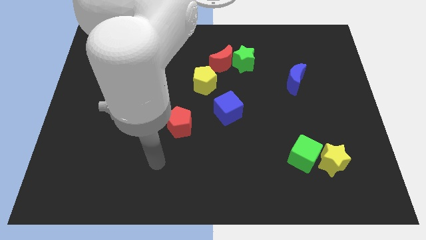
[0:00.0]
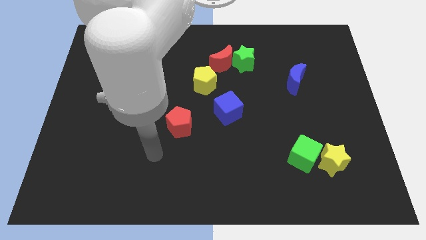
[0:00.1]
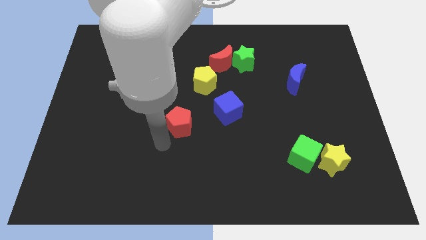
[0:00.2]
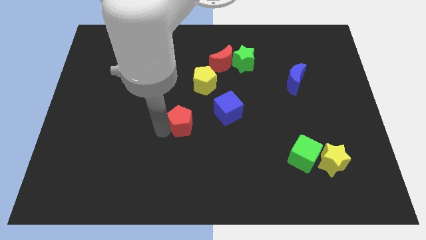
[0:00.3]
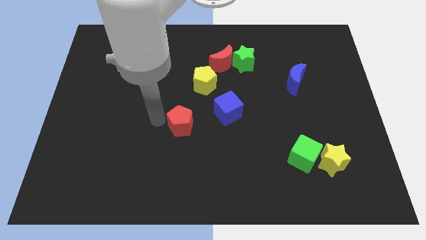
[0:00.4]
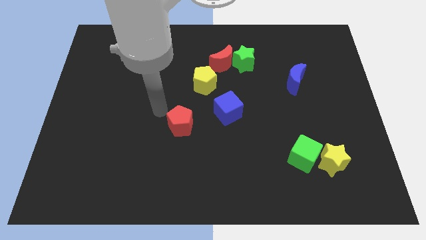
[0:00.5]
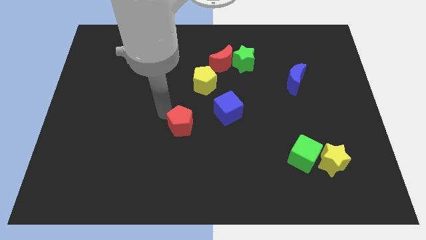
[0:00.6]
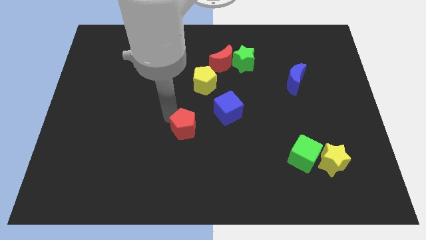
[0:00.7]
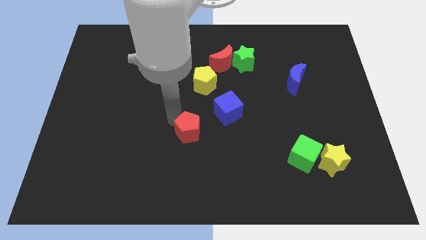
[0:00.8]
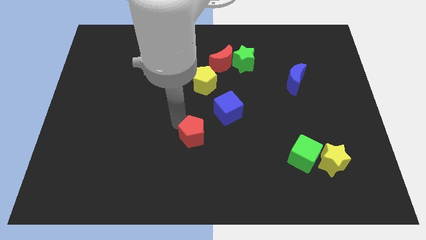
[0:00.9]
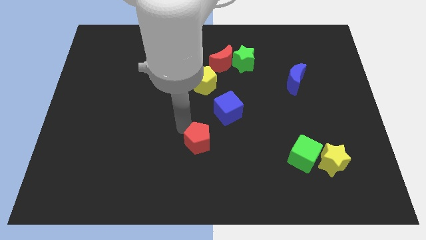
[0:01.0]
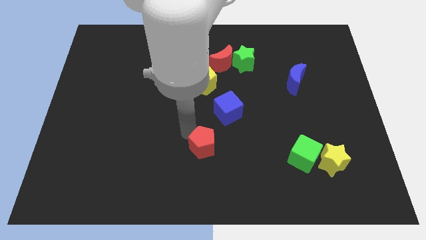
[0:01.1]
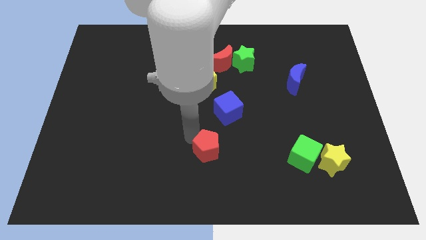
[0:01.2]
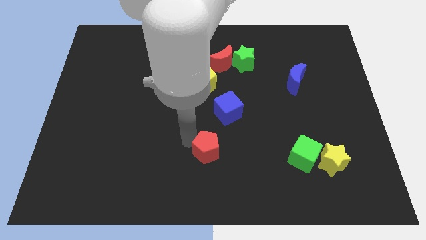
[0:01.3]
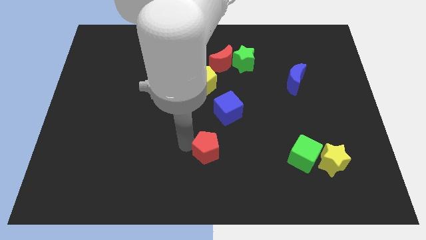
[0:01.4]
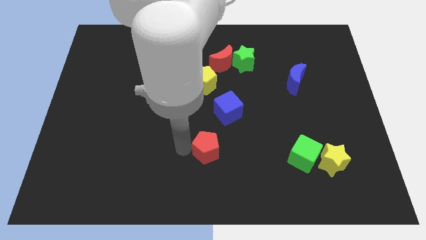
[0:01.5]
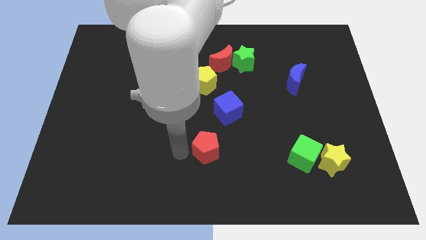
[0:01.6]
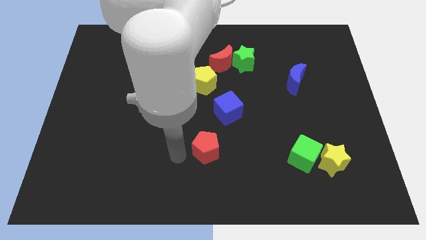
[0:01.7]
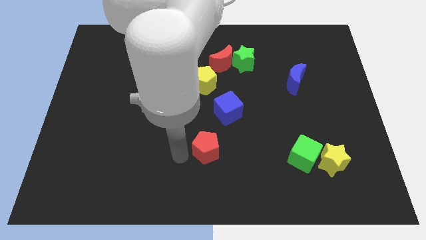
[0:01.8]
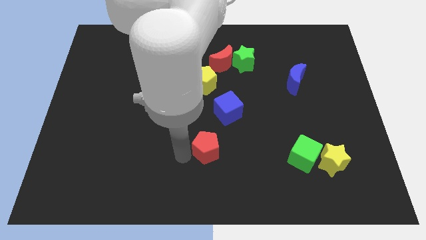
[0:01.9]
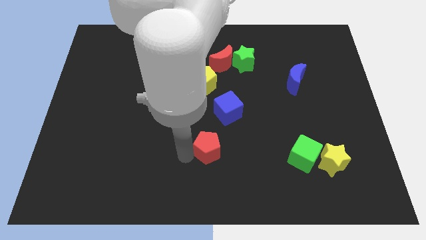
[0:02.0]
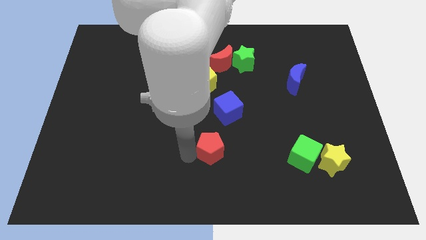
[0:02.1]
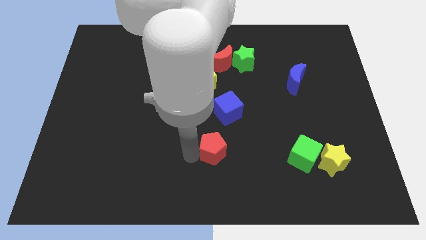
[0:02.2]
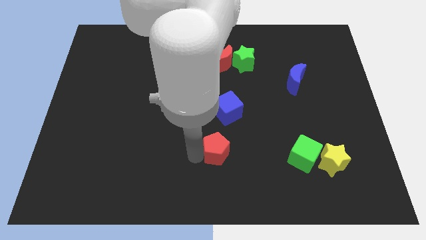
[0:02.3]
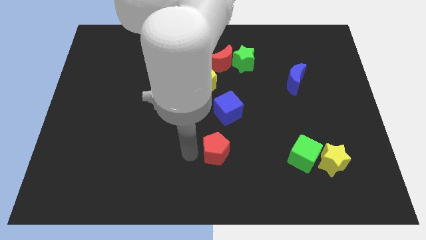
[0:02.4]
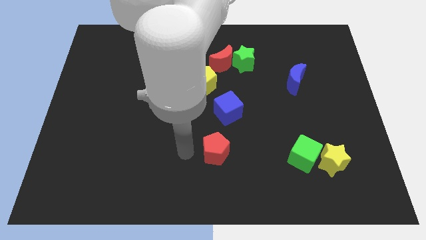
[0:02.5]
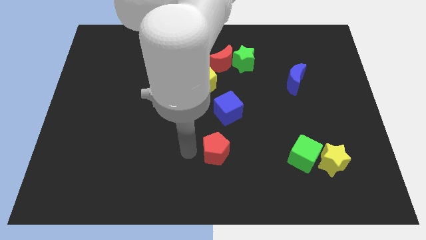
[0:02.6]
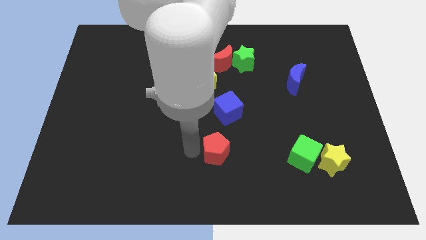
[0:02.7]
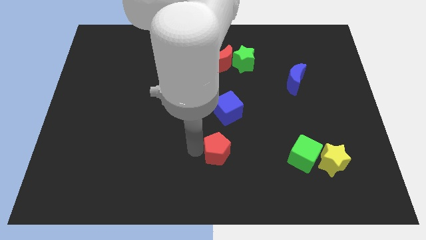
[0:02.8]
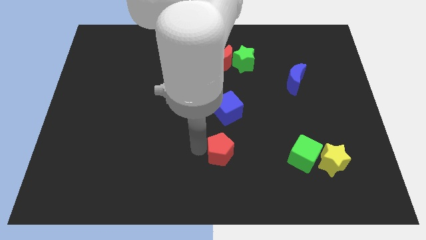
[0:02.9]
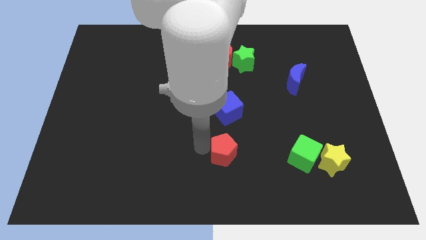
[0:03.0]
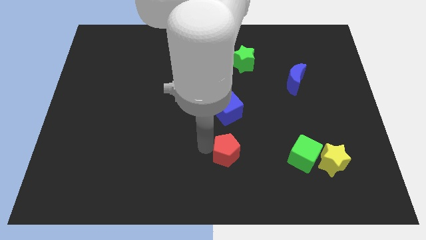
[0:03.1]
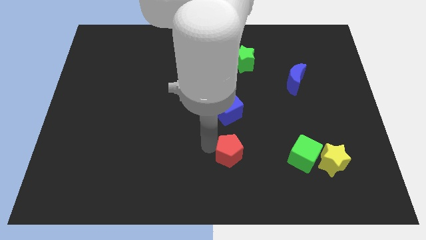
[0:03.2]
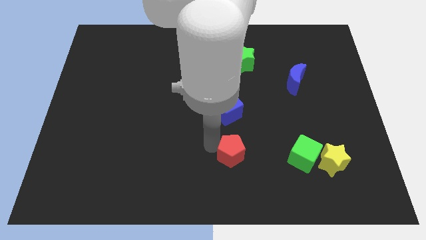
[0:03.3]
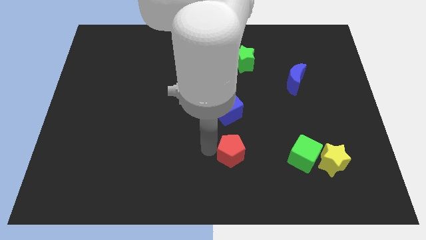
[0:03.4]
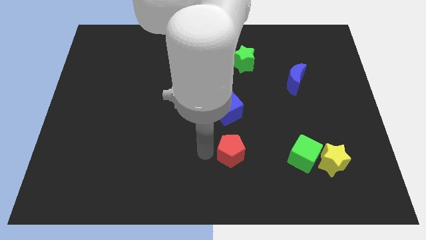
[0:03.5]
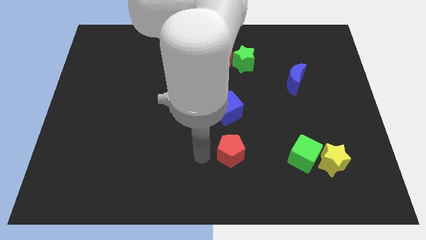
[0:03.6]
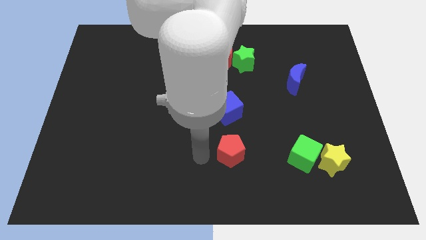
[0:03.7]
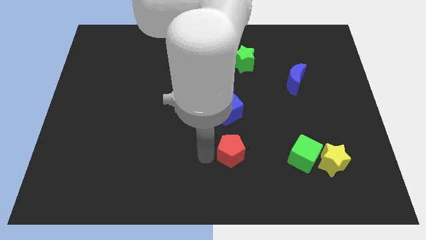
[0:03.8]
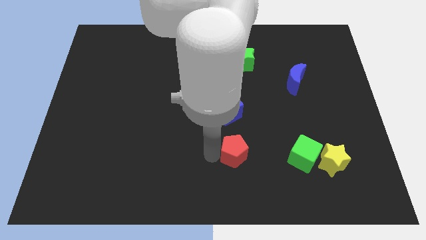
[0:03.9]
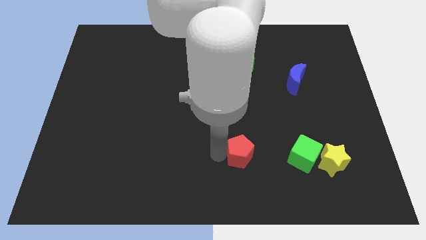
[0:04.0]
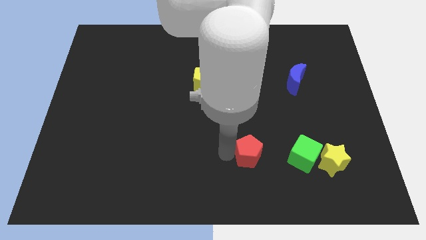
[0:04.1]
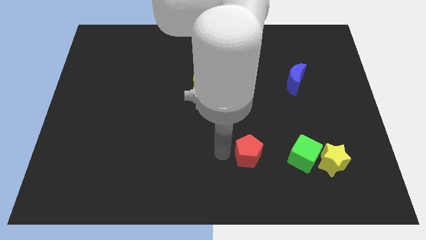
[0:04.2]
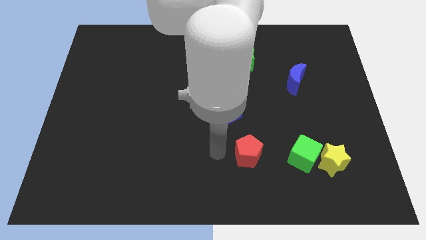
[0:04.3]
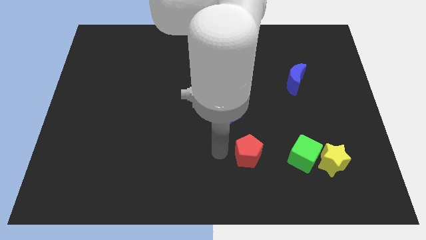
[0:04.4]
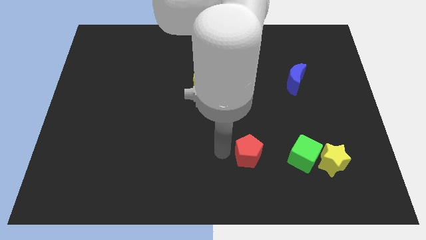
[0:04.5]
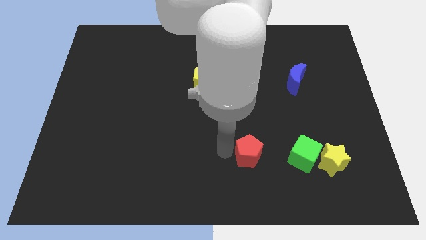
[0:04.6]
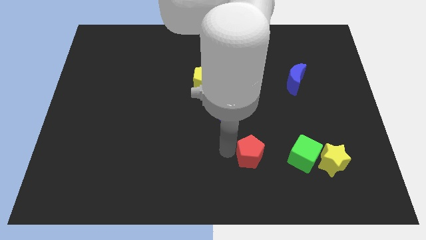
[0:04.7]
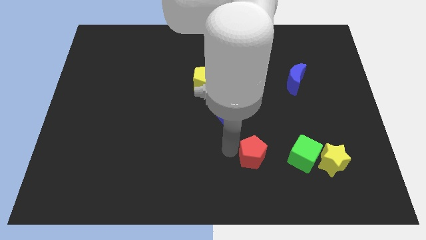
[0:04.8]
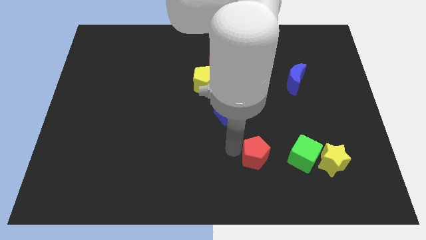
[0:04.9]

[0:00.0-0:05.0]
slide the red pentagon to the left of the yellow star

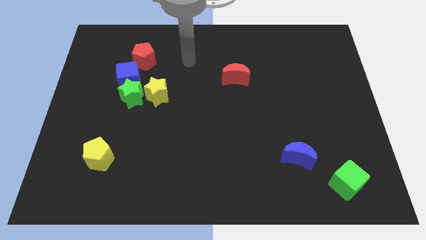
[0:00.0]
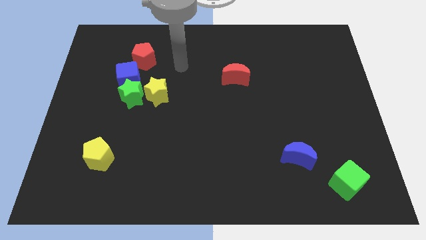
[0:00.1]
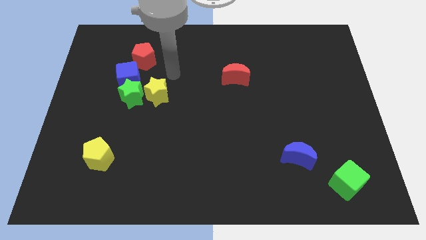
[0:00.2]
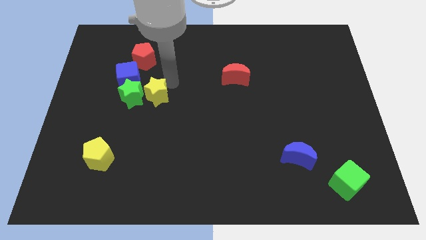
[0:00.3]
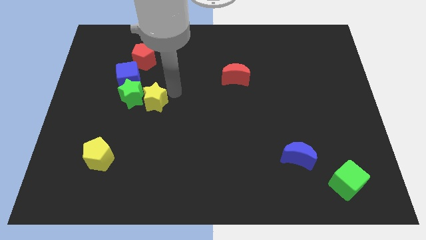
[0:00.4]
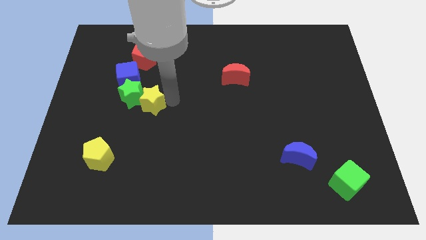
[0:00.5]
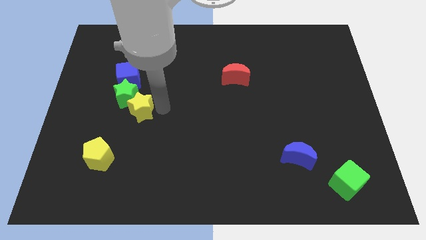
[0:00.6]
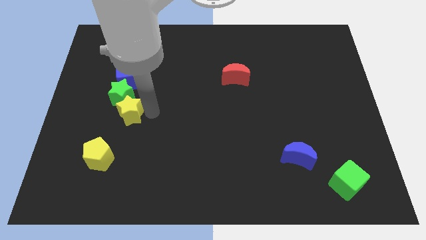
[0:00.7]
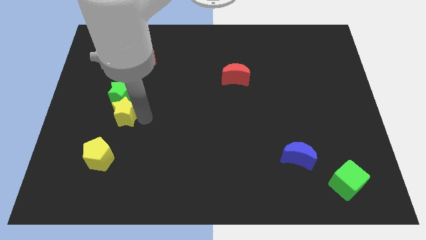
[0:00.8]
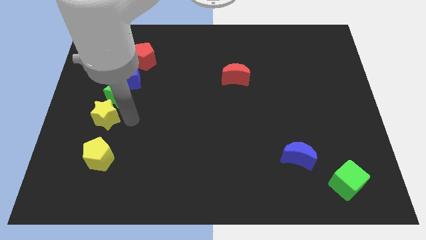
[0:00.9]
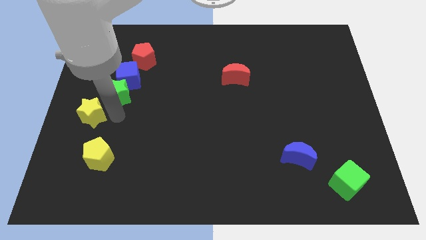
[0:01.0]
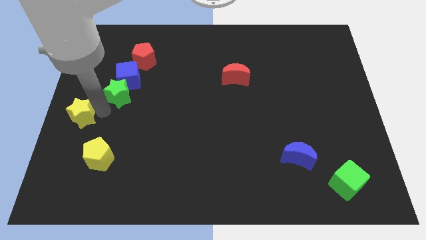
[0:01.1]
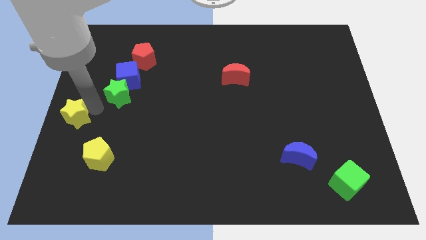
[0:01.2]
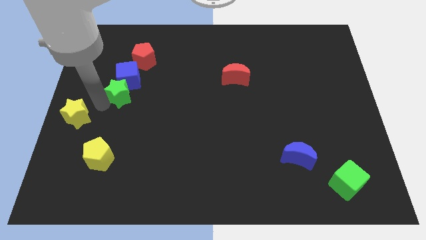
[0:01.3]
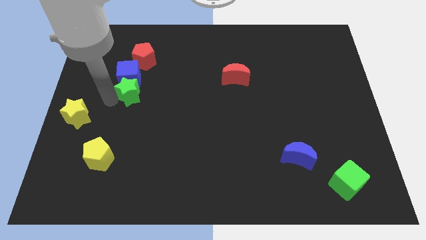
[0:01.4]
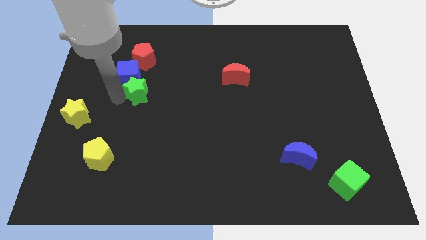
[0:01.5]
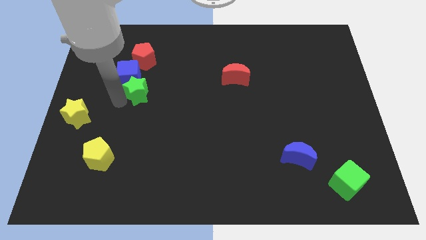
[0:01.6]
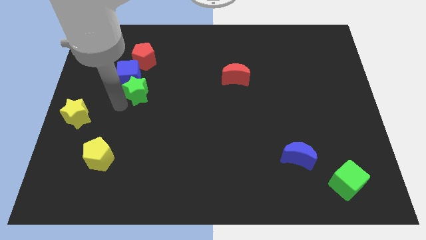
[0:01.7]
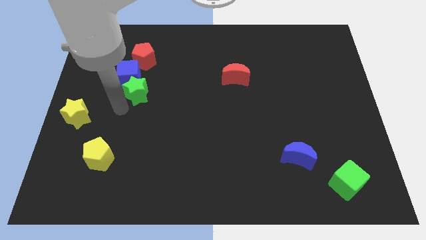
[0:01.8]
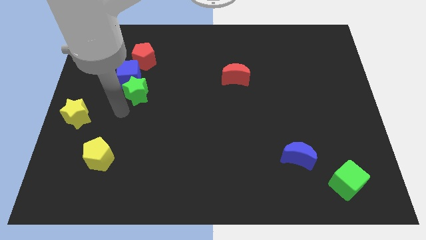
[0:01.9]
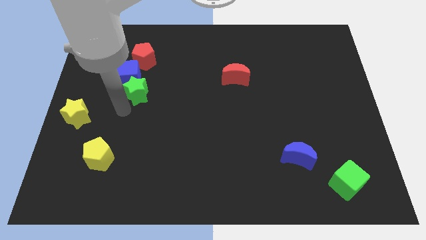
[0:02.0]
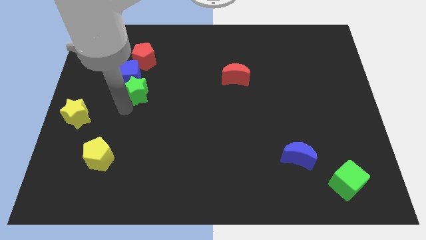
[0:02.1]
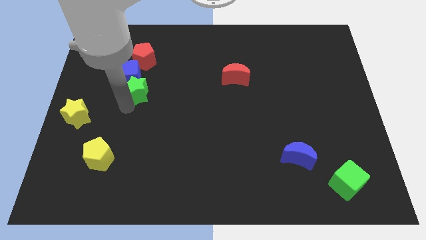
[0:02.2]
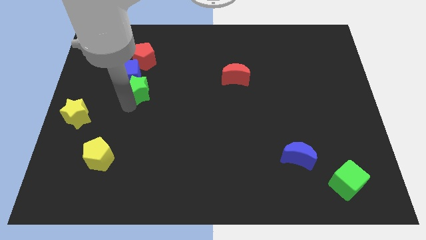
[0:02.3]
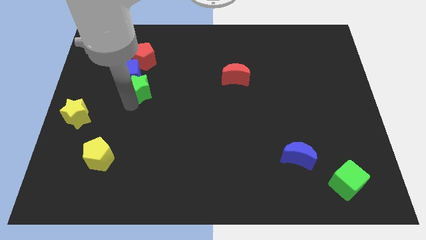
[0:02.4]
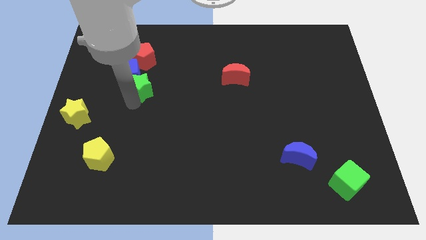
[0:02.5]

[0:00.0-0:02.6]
put the green star right of the blue cube
